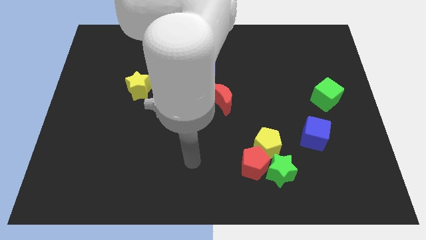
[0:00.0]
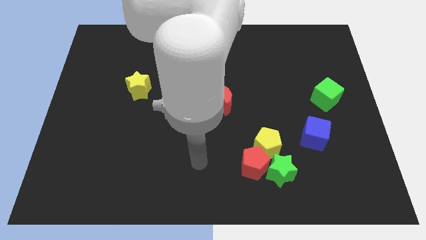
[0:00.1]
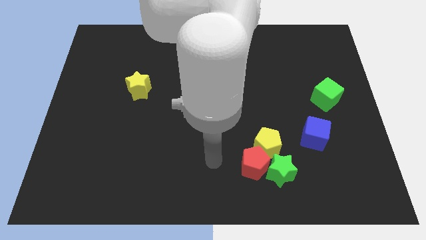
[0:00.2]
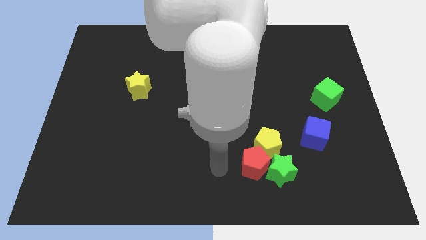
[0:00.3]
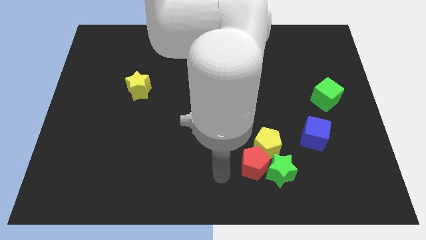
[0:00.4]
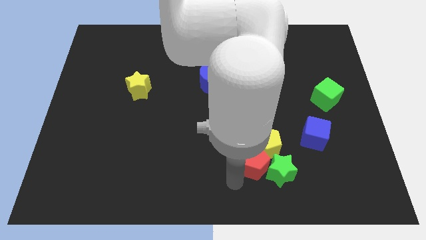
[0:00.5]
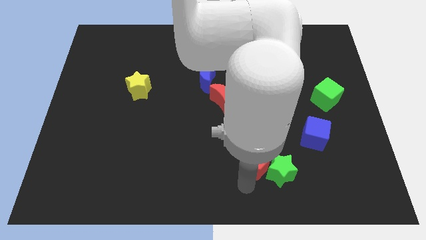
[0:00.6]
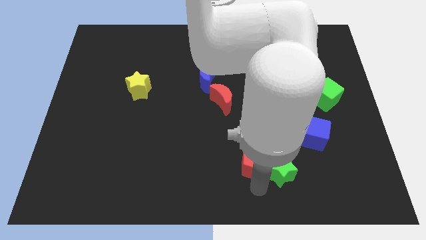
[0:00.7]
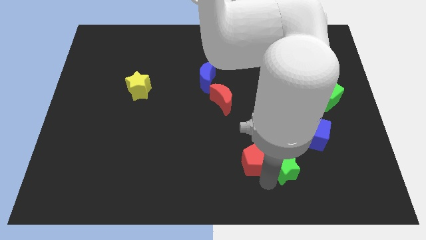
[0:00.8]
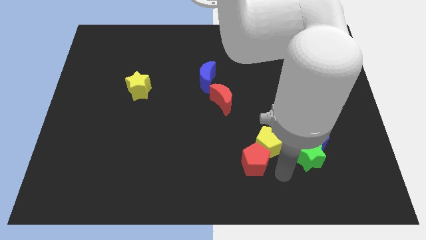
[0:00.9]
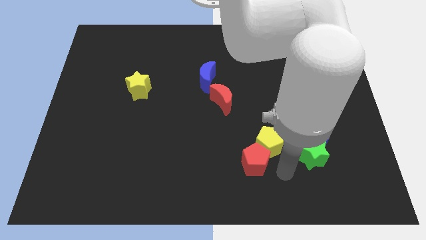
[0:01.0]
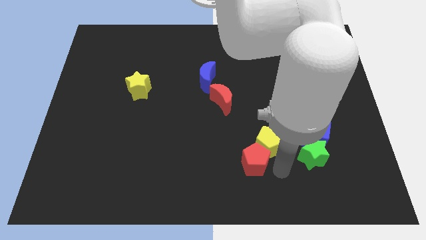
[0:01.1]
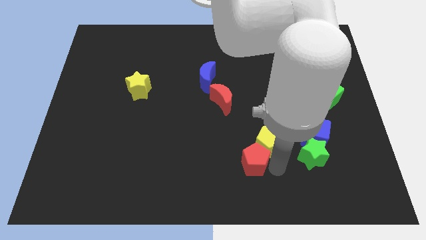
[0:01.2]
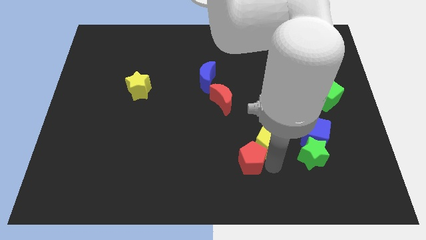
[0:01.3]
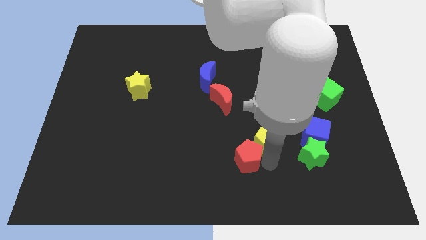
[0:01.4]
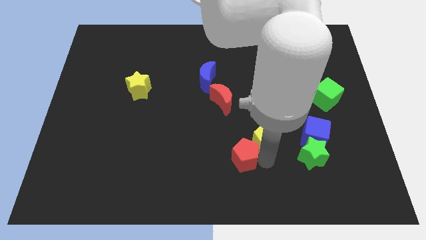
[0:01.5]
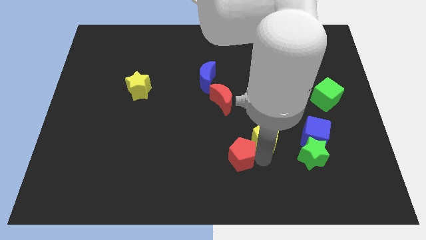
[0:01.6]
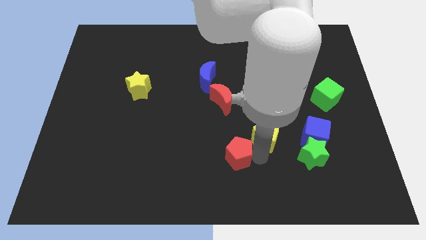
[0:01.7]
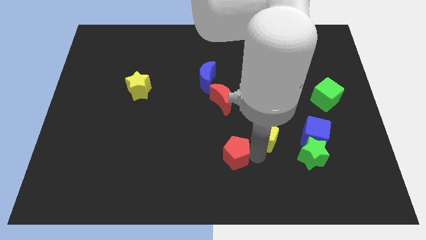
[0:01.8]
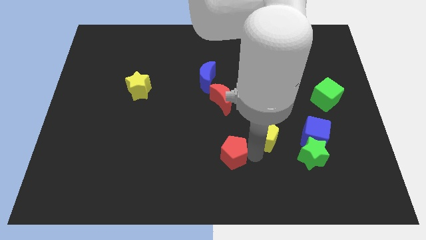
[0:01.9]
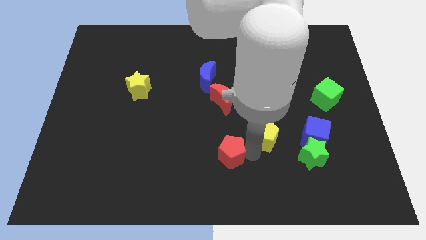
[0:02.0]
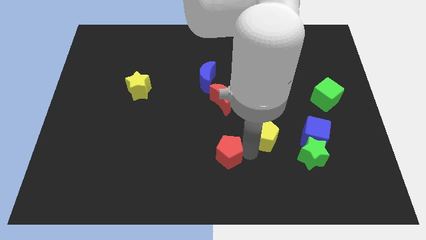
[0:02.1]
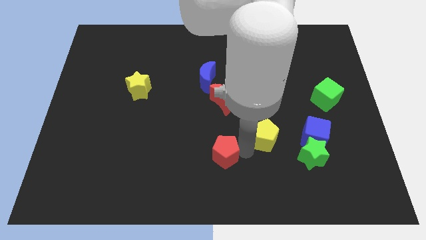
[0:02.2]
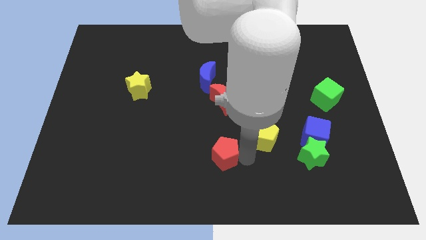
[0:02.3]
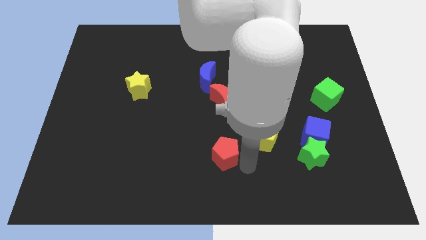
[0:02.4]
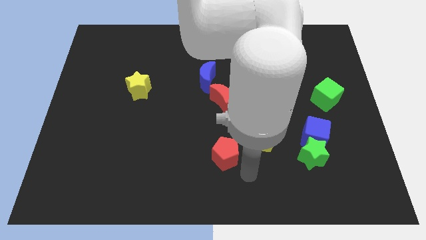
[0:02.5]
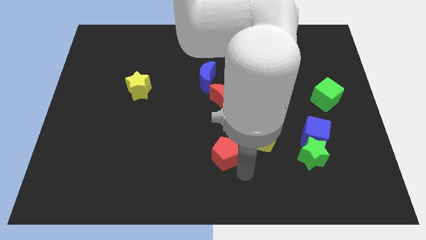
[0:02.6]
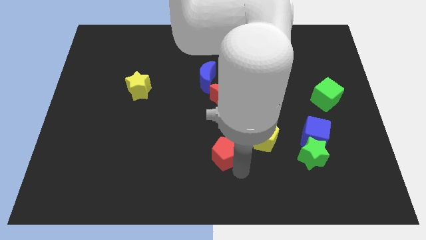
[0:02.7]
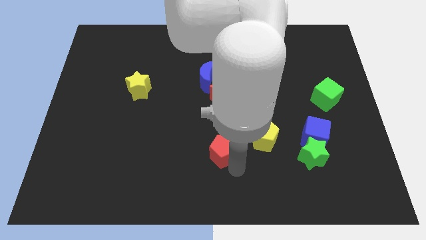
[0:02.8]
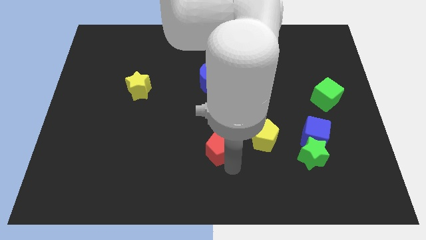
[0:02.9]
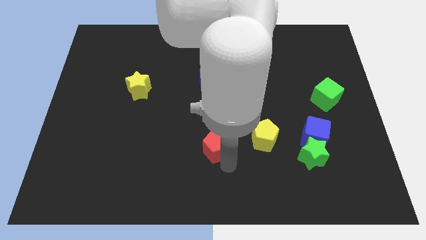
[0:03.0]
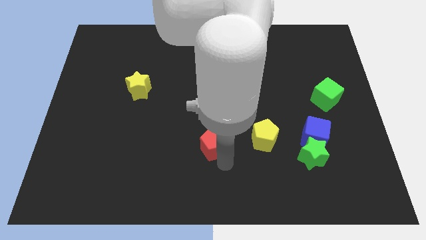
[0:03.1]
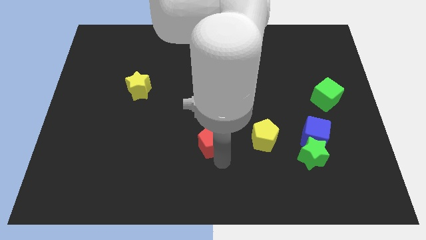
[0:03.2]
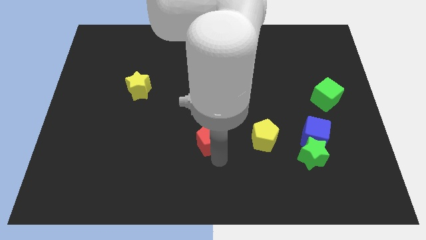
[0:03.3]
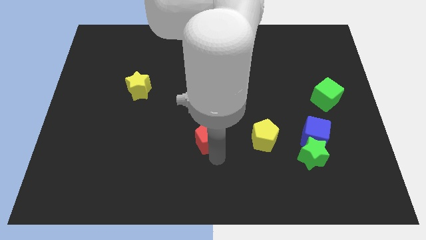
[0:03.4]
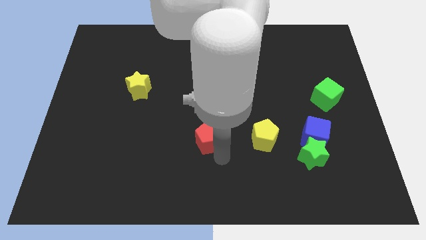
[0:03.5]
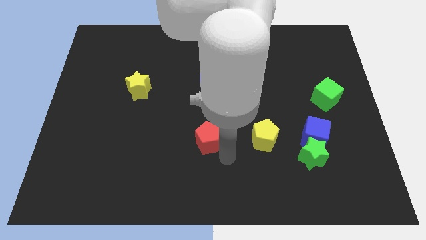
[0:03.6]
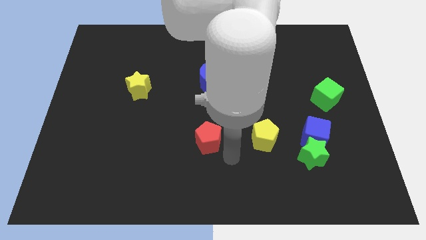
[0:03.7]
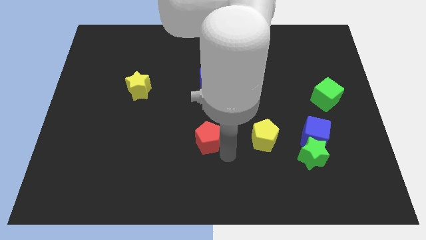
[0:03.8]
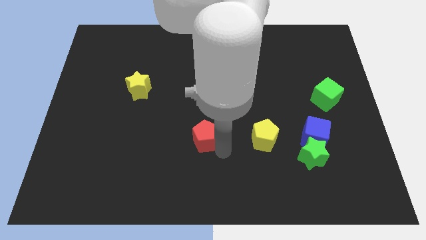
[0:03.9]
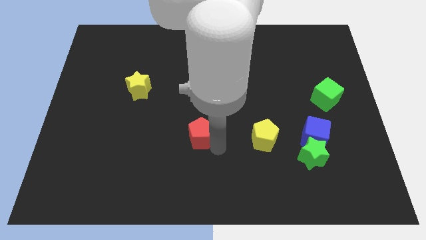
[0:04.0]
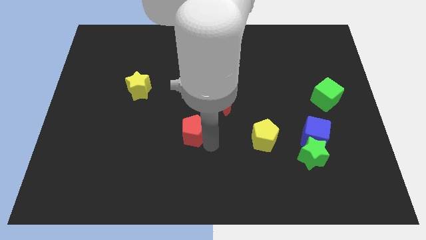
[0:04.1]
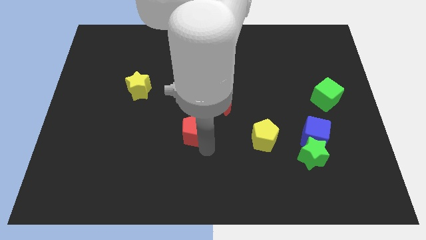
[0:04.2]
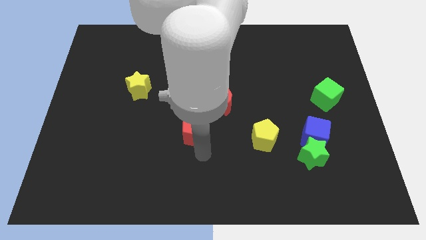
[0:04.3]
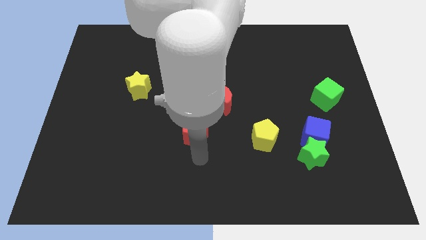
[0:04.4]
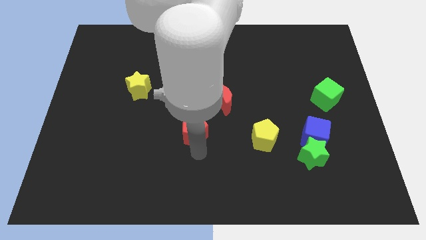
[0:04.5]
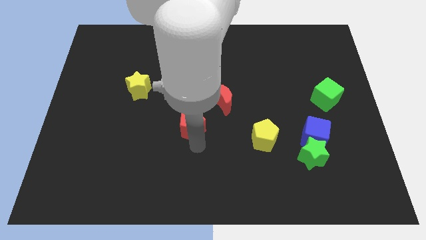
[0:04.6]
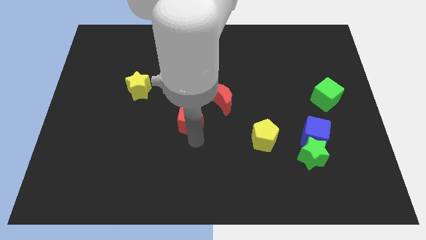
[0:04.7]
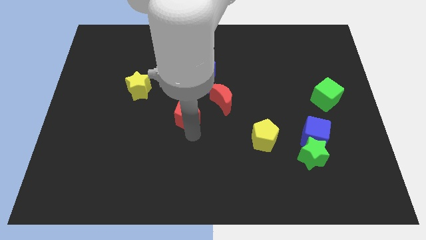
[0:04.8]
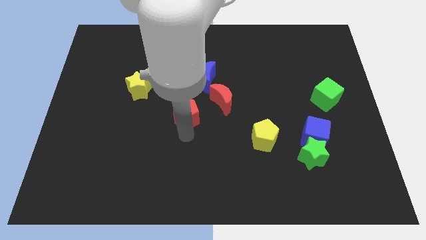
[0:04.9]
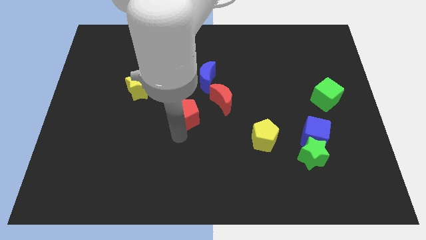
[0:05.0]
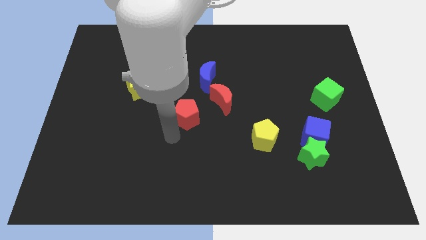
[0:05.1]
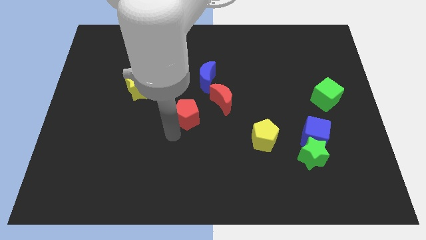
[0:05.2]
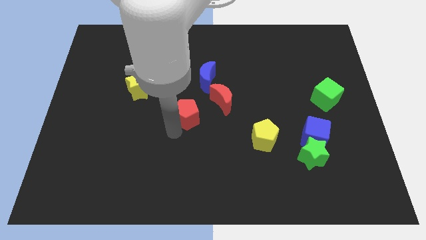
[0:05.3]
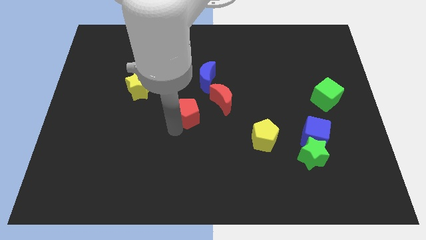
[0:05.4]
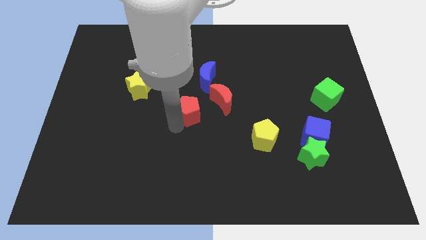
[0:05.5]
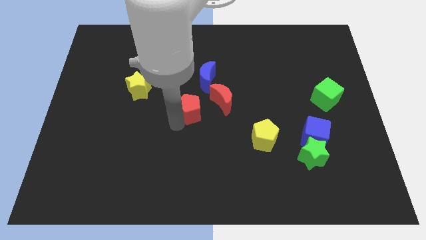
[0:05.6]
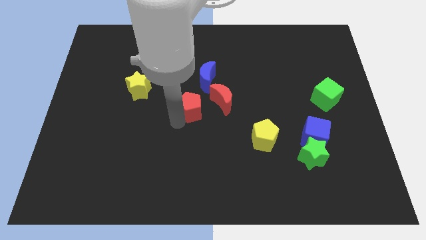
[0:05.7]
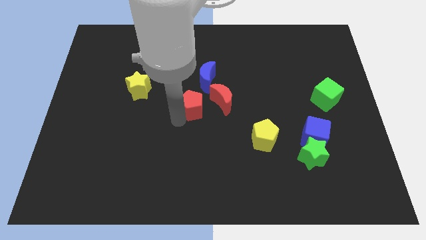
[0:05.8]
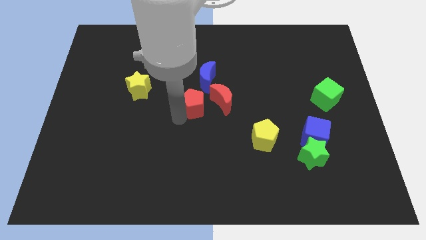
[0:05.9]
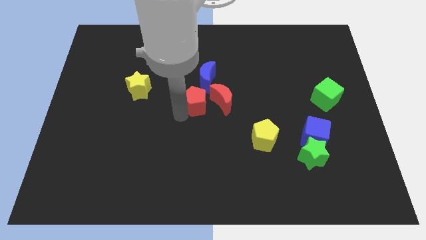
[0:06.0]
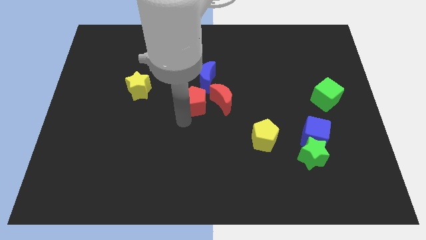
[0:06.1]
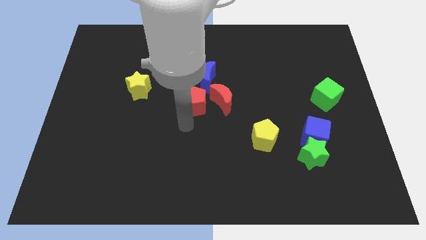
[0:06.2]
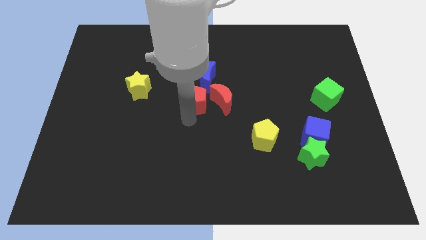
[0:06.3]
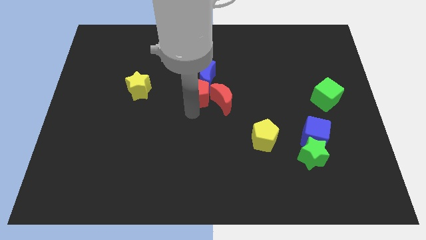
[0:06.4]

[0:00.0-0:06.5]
push the red pentagon next to the blue moon
